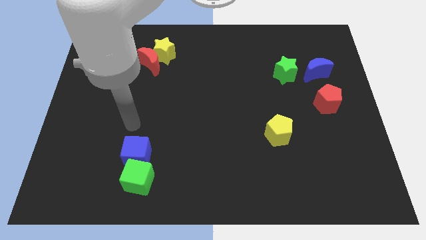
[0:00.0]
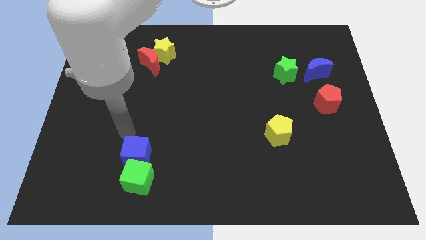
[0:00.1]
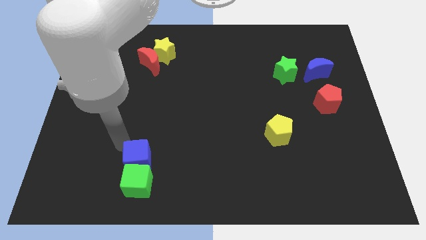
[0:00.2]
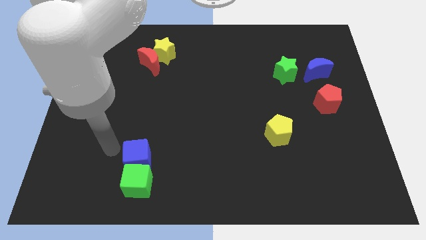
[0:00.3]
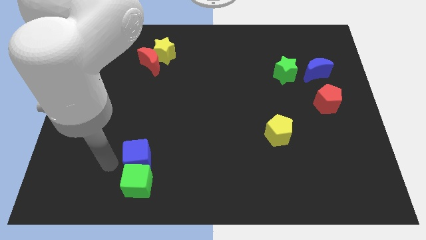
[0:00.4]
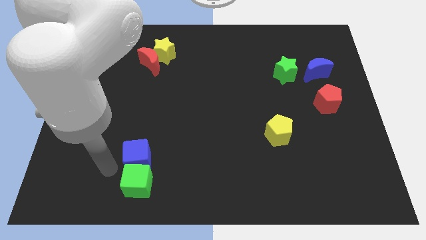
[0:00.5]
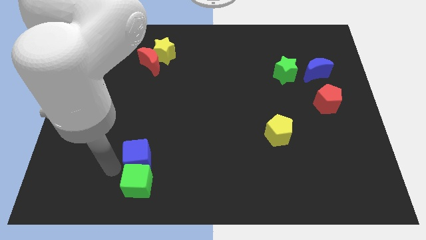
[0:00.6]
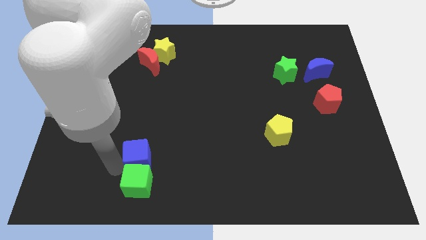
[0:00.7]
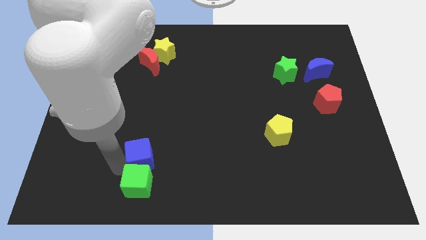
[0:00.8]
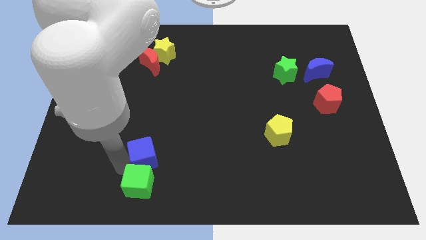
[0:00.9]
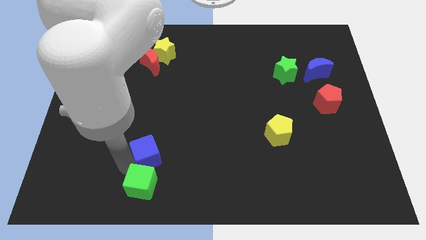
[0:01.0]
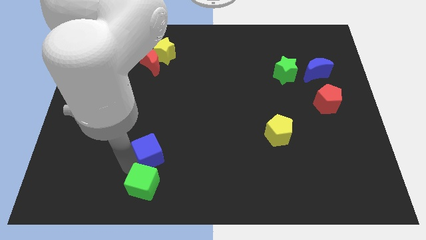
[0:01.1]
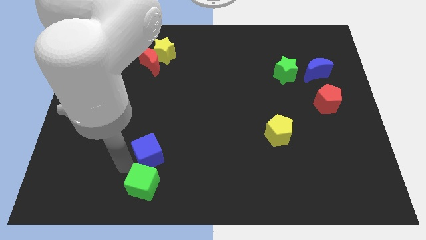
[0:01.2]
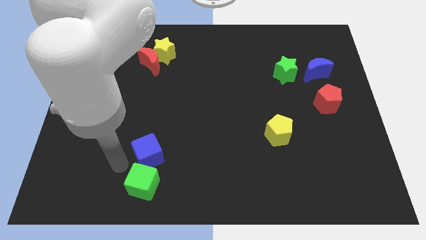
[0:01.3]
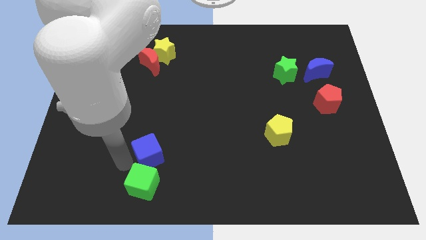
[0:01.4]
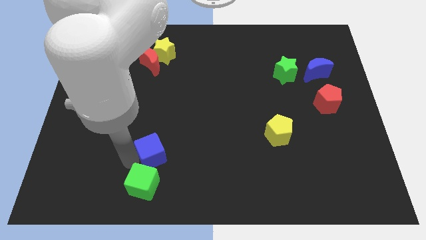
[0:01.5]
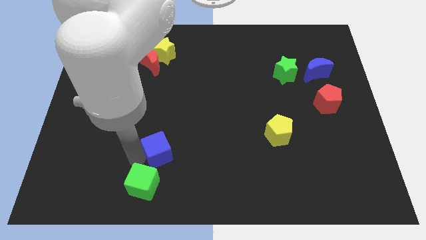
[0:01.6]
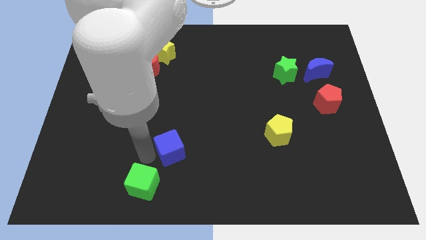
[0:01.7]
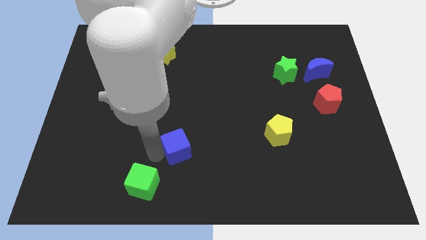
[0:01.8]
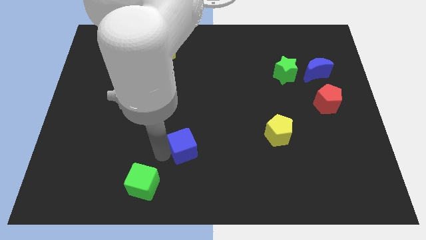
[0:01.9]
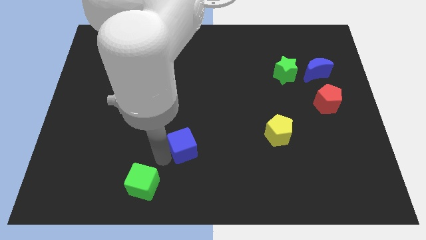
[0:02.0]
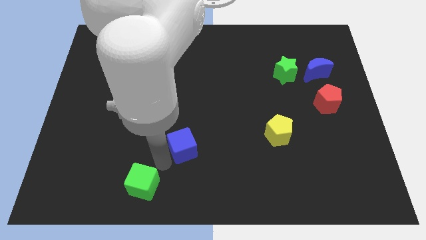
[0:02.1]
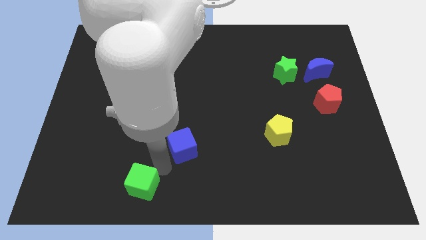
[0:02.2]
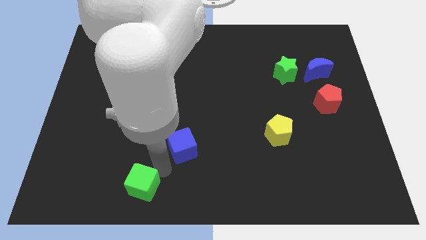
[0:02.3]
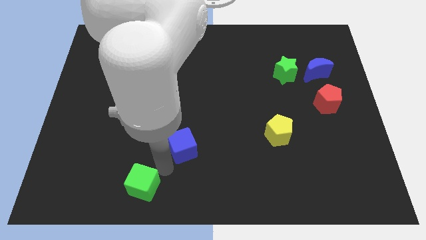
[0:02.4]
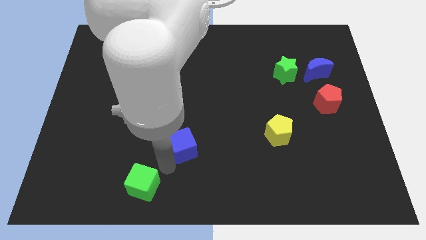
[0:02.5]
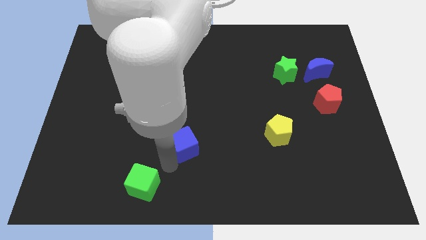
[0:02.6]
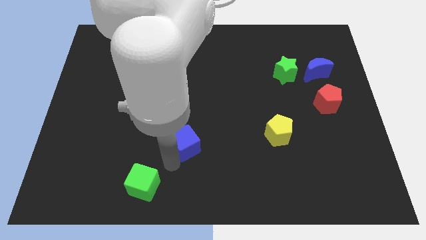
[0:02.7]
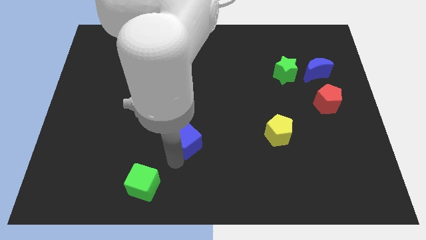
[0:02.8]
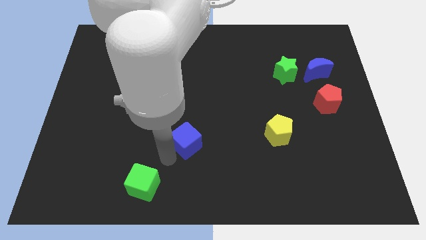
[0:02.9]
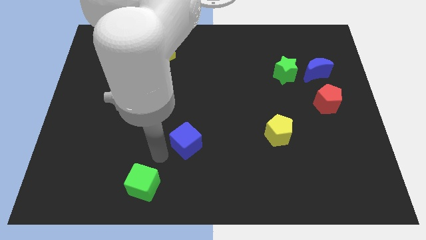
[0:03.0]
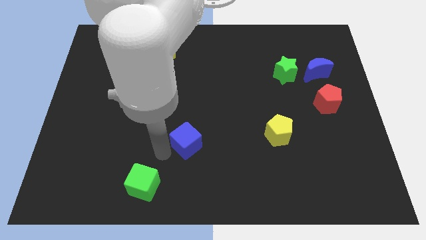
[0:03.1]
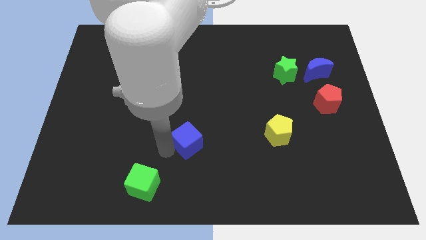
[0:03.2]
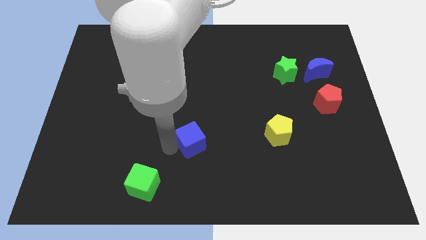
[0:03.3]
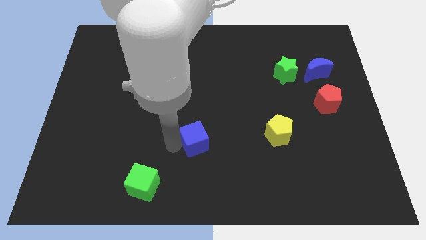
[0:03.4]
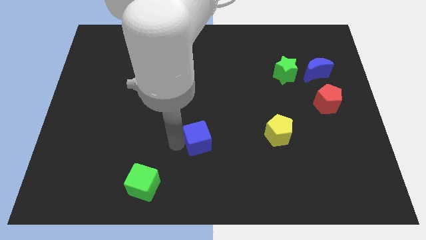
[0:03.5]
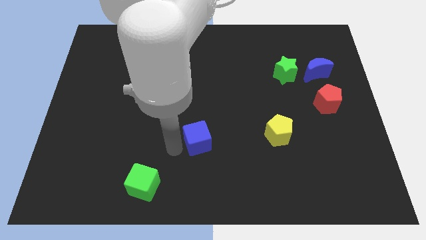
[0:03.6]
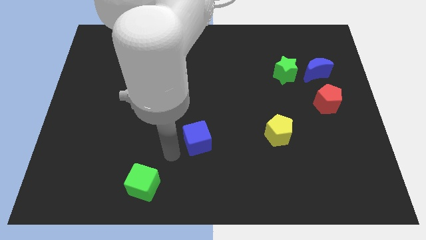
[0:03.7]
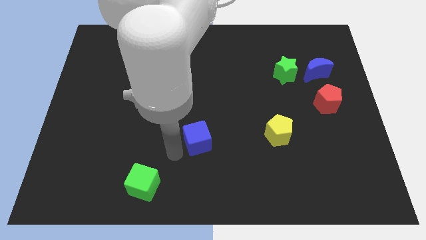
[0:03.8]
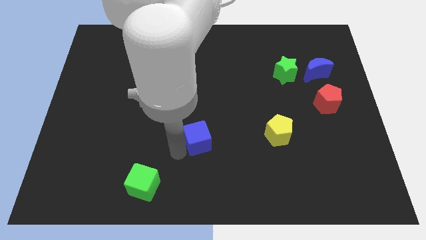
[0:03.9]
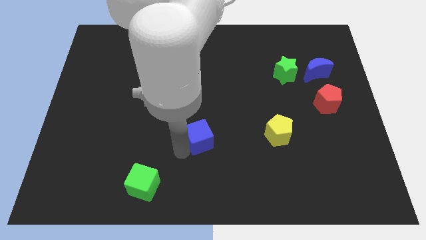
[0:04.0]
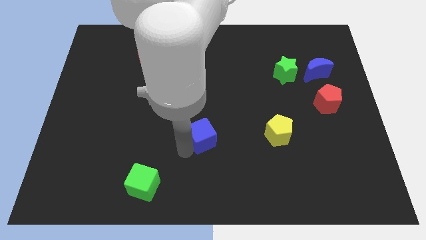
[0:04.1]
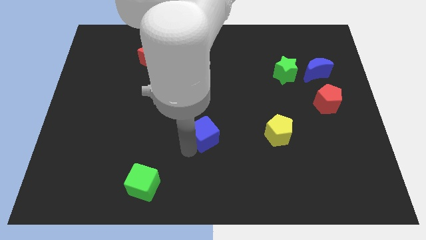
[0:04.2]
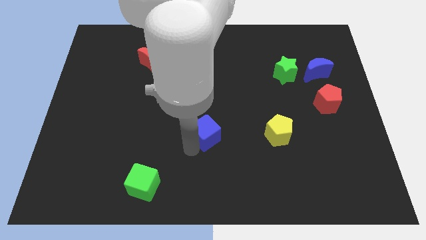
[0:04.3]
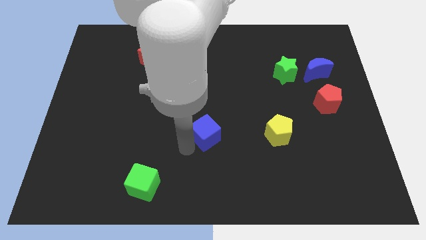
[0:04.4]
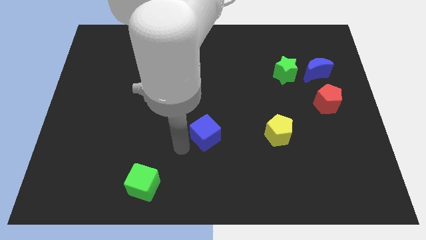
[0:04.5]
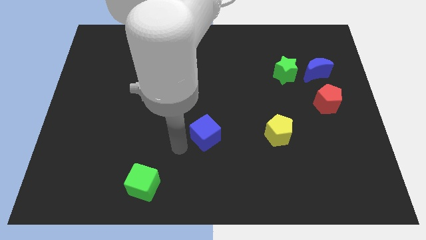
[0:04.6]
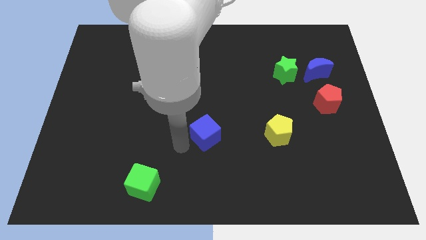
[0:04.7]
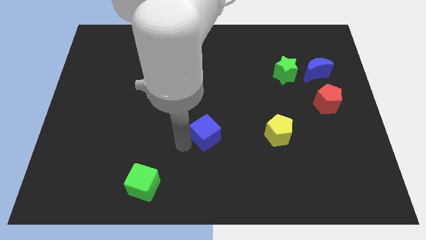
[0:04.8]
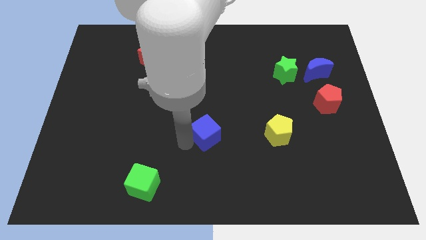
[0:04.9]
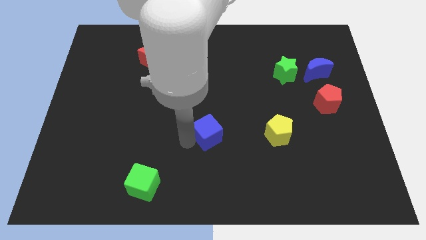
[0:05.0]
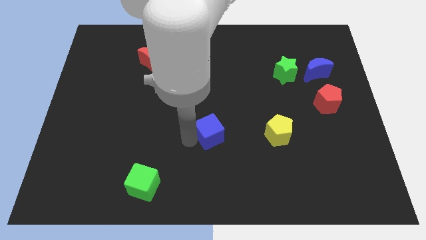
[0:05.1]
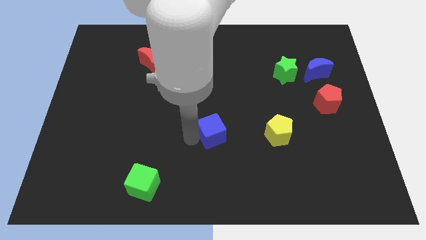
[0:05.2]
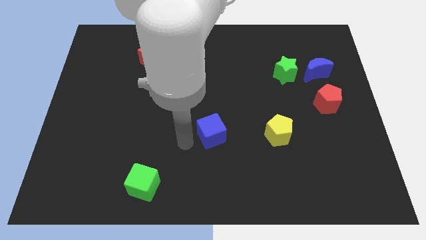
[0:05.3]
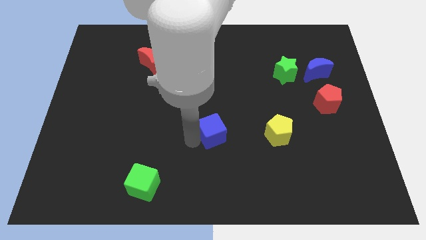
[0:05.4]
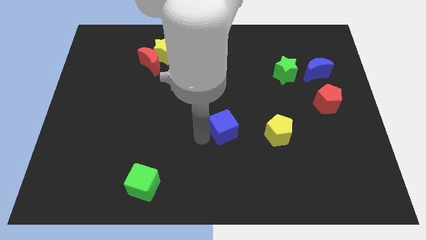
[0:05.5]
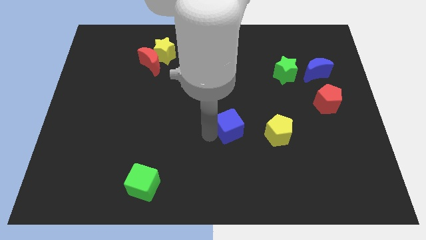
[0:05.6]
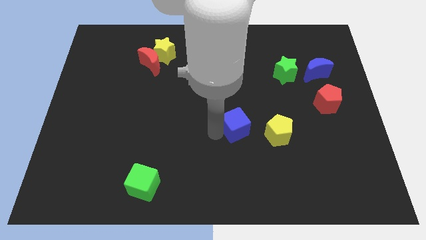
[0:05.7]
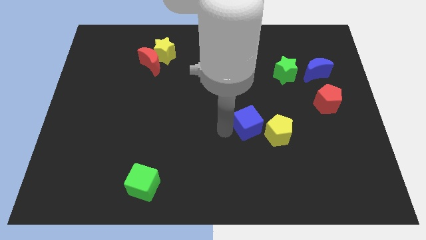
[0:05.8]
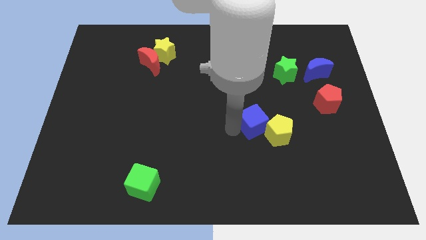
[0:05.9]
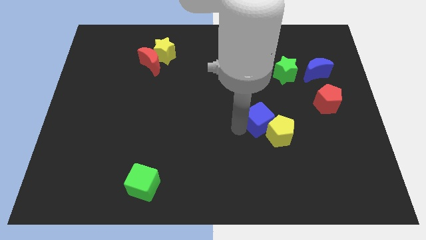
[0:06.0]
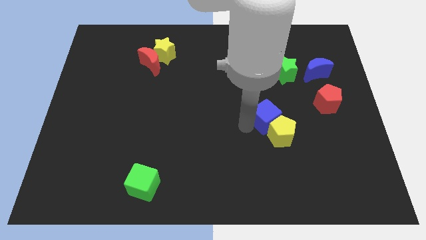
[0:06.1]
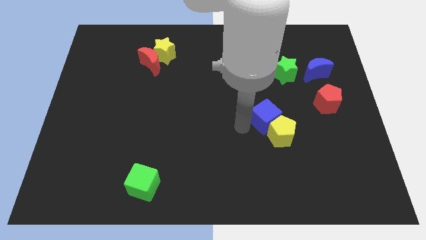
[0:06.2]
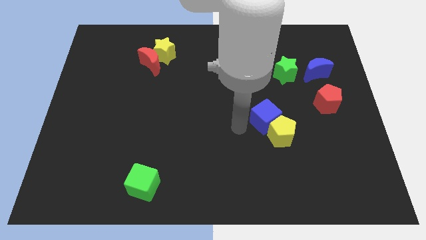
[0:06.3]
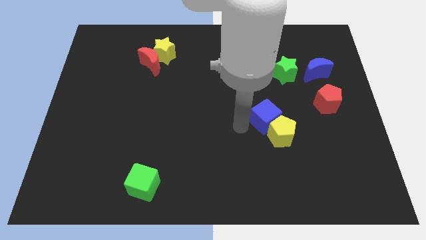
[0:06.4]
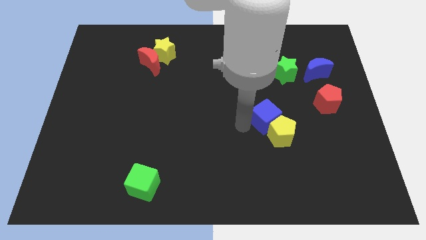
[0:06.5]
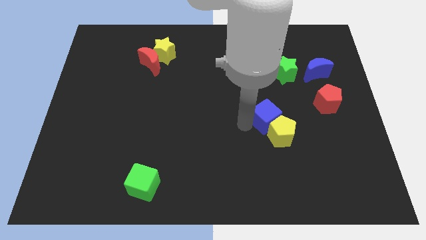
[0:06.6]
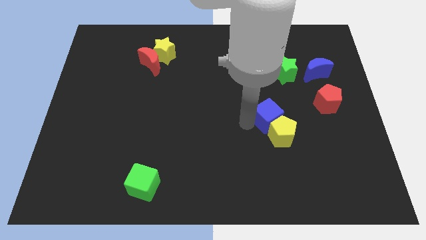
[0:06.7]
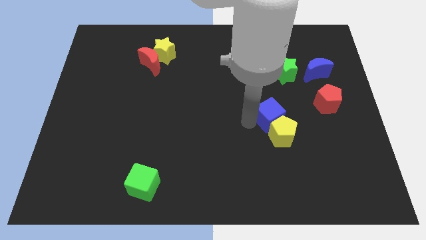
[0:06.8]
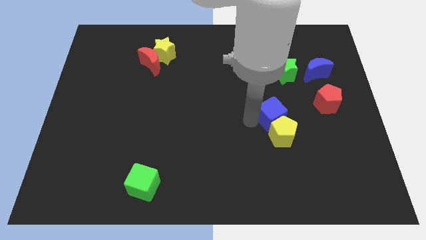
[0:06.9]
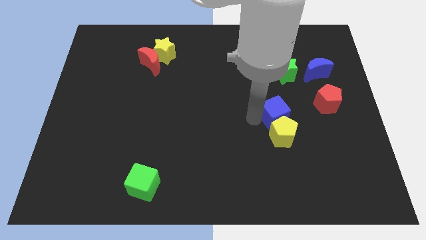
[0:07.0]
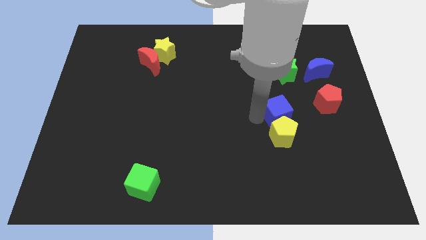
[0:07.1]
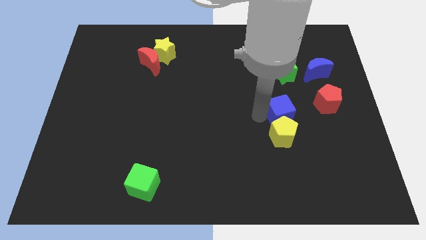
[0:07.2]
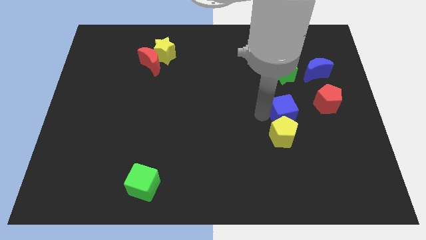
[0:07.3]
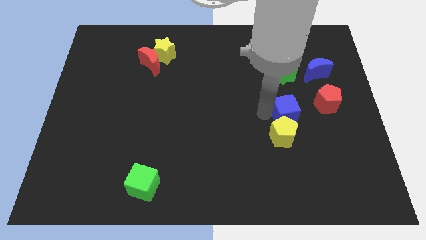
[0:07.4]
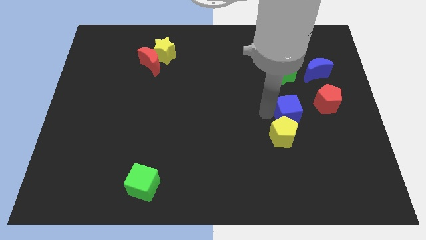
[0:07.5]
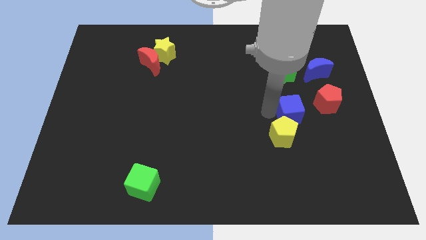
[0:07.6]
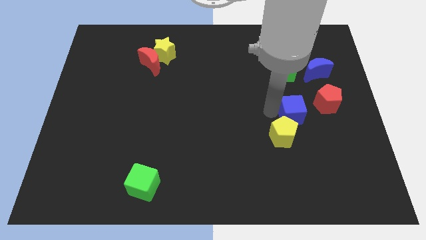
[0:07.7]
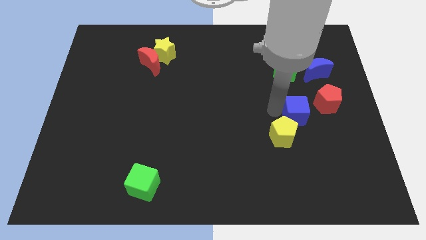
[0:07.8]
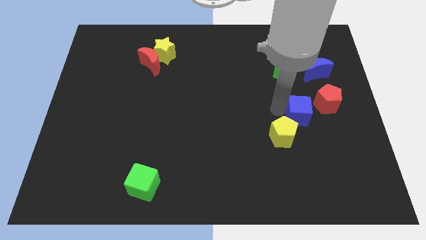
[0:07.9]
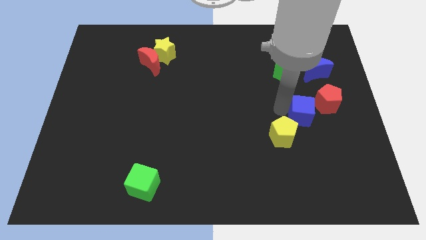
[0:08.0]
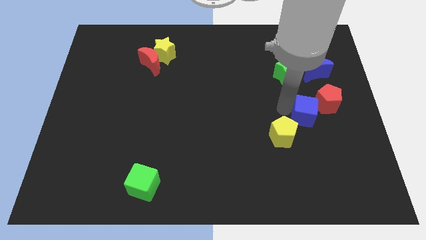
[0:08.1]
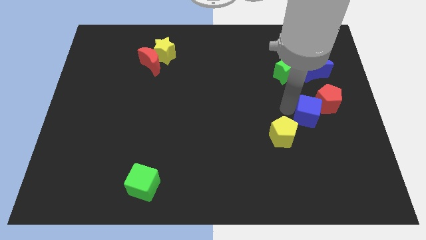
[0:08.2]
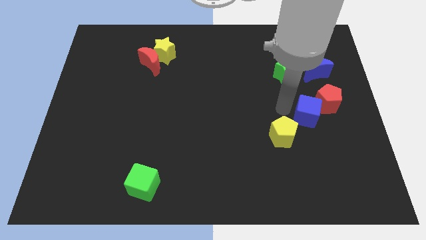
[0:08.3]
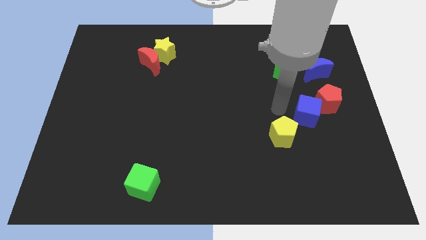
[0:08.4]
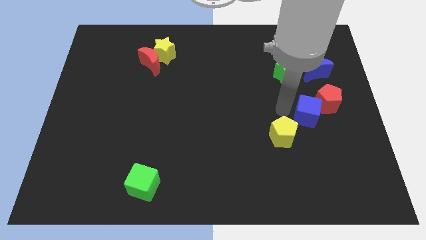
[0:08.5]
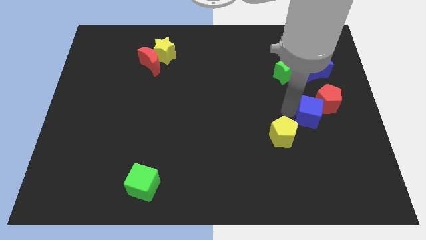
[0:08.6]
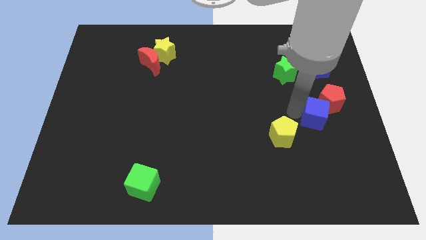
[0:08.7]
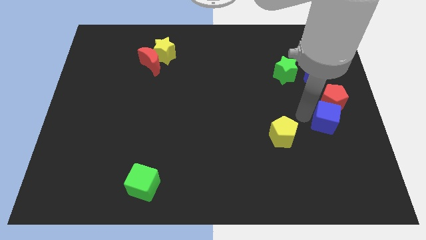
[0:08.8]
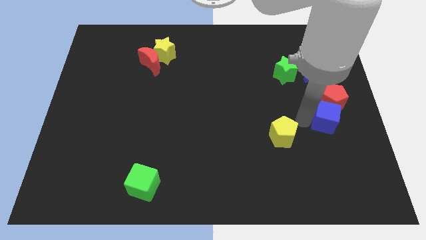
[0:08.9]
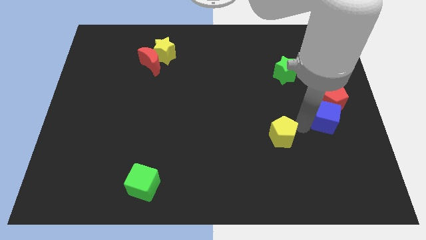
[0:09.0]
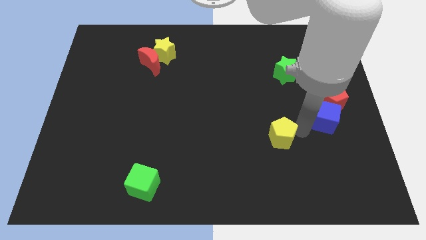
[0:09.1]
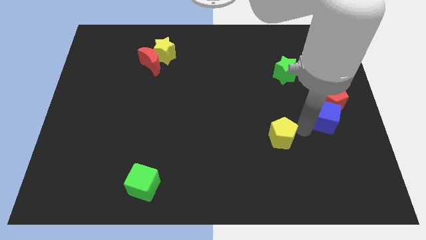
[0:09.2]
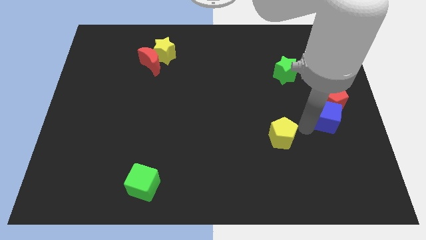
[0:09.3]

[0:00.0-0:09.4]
push the blue cube to the center right
